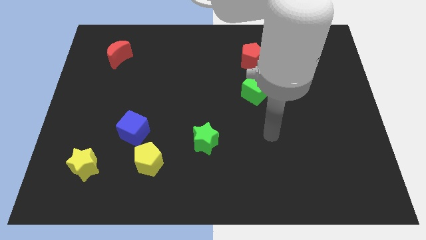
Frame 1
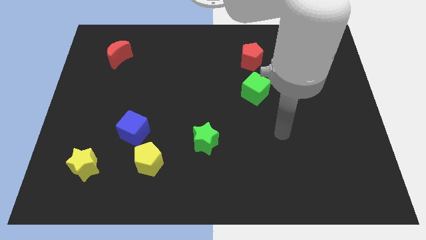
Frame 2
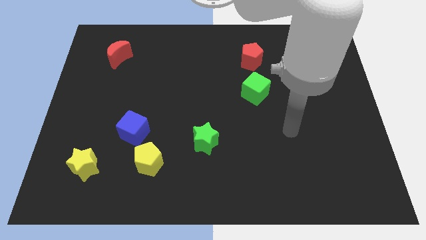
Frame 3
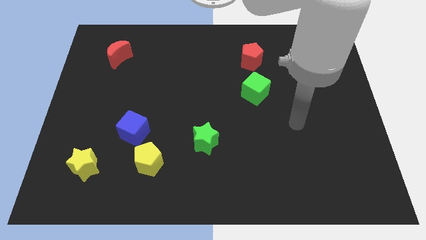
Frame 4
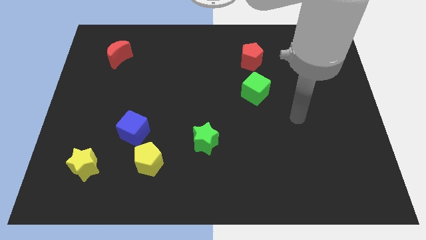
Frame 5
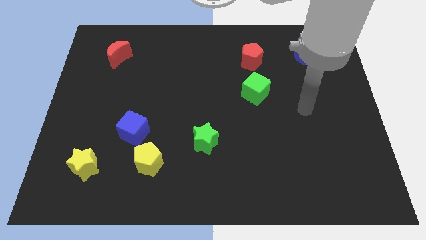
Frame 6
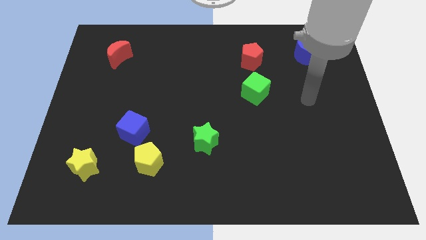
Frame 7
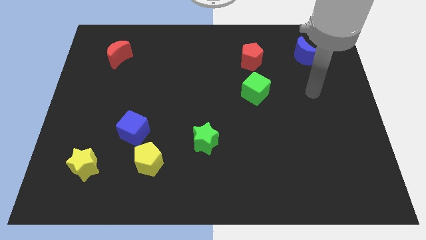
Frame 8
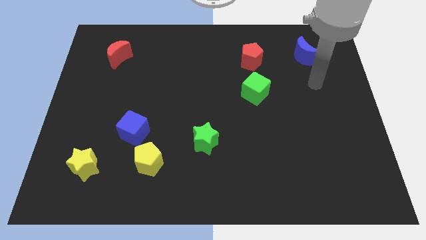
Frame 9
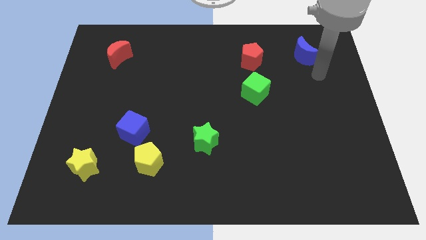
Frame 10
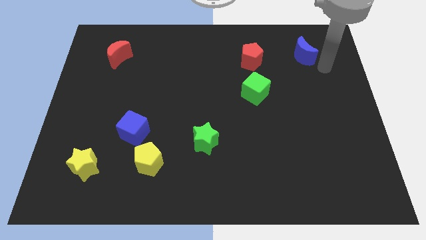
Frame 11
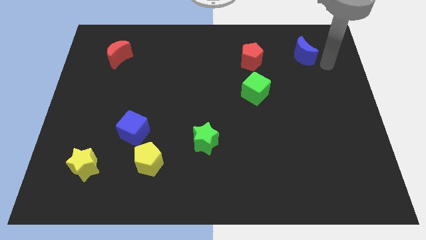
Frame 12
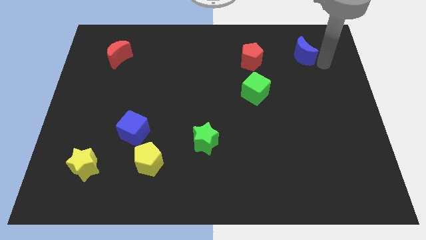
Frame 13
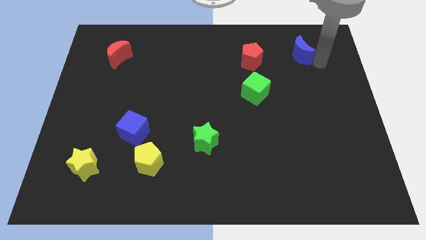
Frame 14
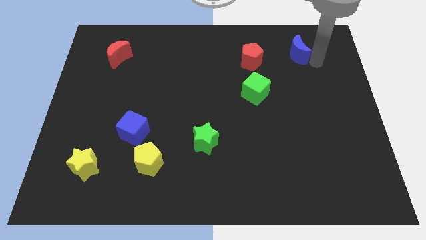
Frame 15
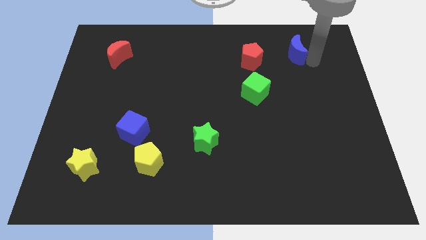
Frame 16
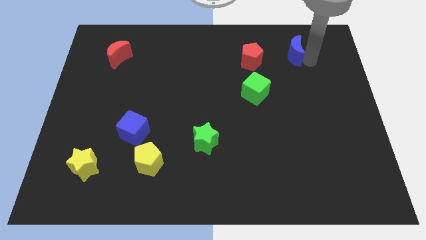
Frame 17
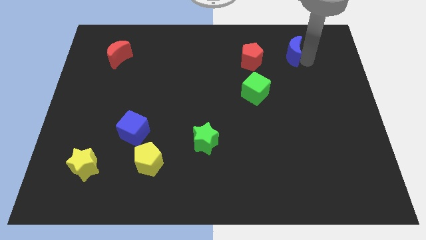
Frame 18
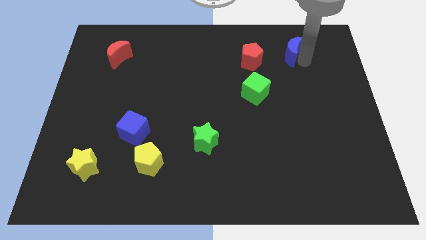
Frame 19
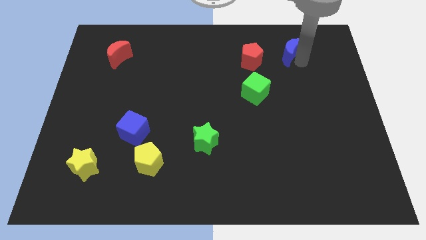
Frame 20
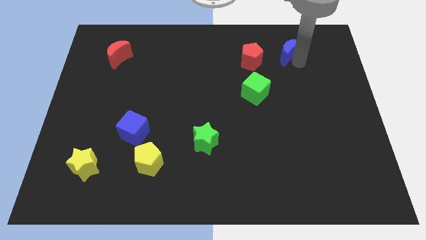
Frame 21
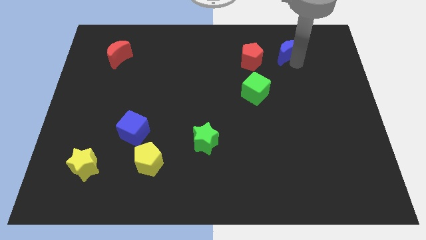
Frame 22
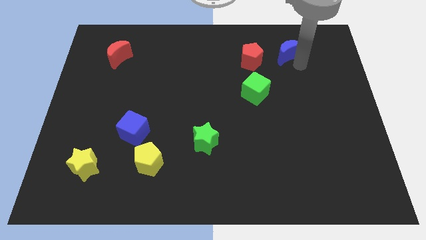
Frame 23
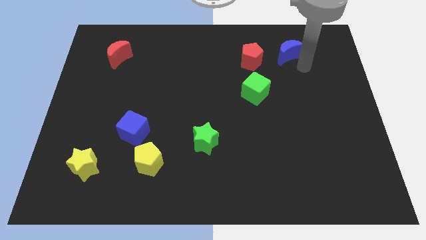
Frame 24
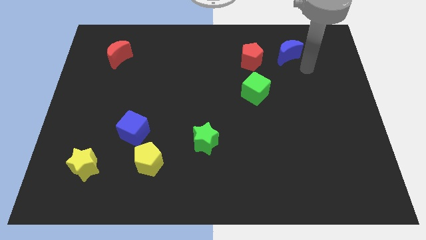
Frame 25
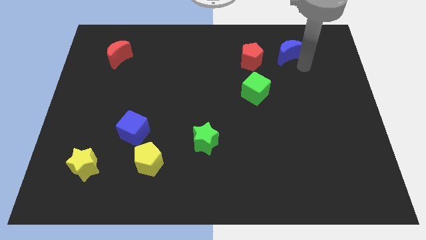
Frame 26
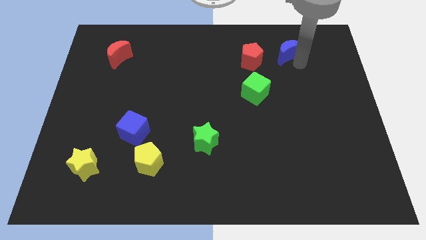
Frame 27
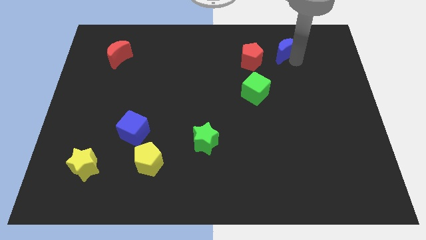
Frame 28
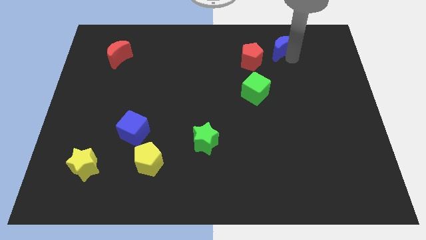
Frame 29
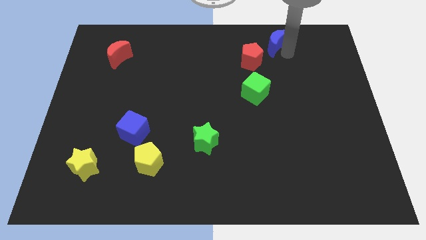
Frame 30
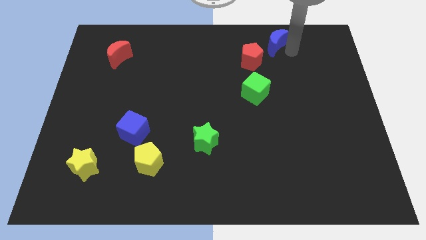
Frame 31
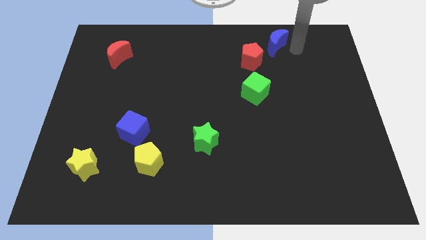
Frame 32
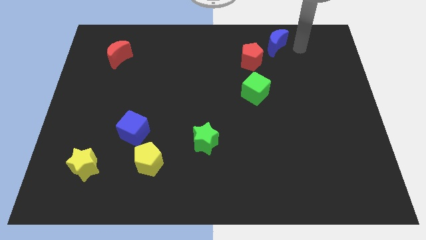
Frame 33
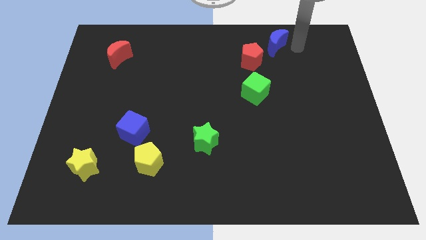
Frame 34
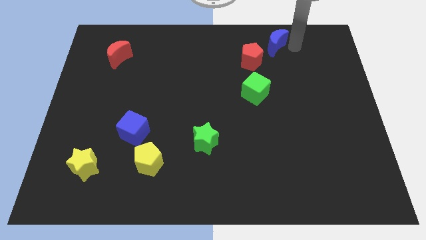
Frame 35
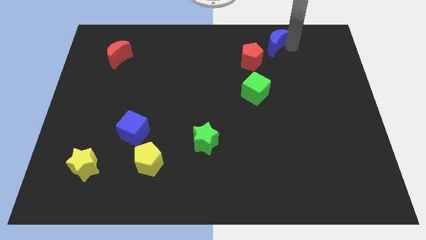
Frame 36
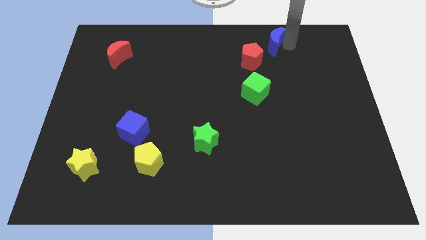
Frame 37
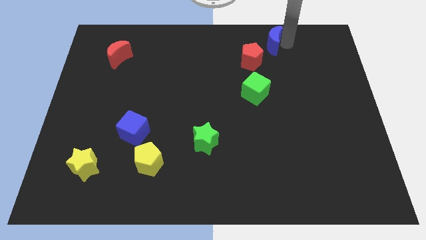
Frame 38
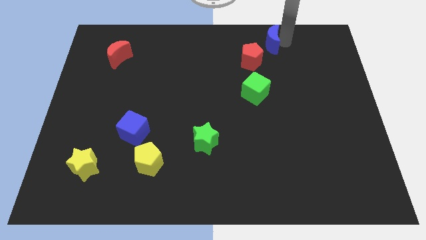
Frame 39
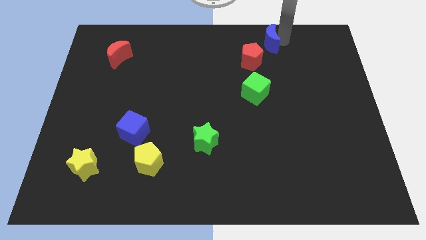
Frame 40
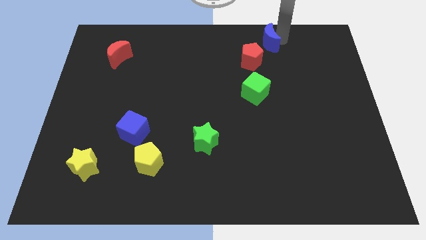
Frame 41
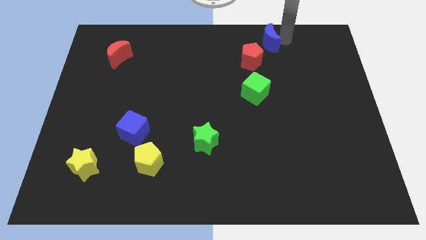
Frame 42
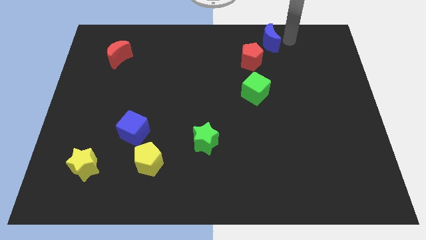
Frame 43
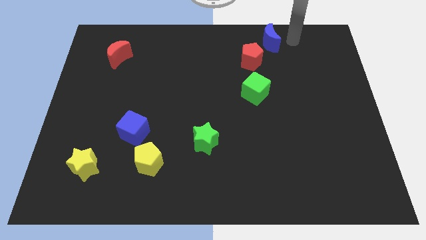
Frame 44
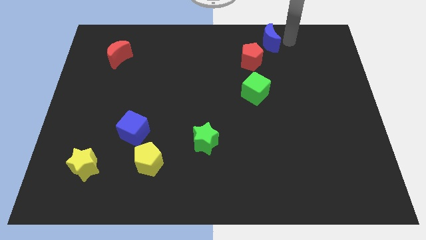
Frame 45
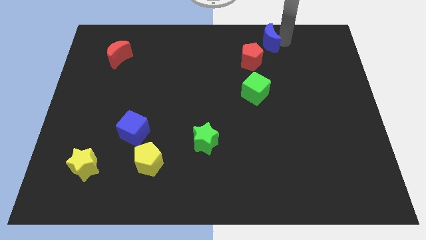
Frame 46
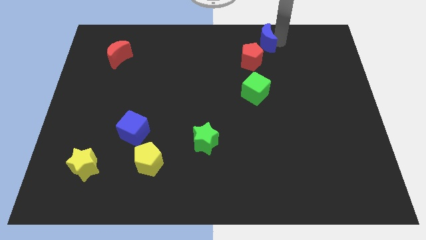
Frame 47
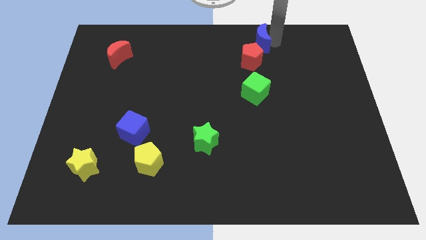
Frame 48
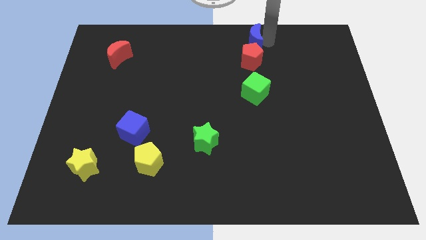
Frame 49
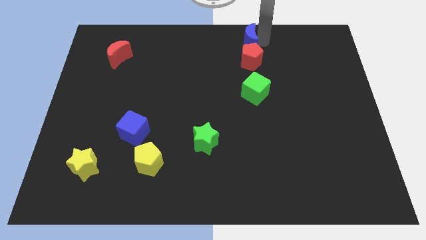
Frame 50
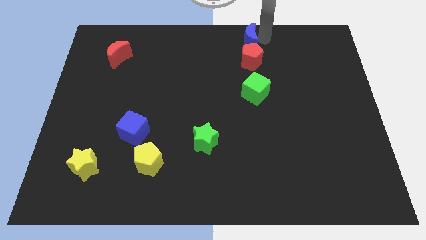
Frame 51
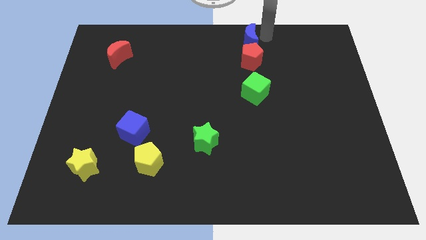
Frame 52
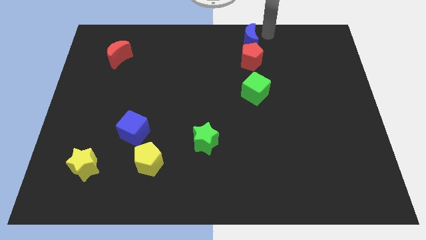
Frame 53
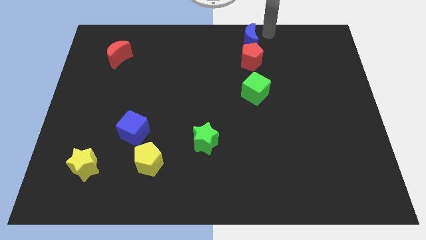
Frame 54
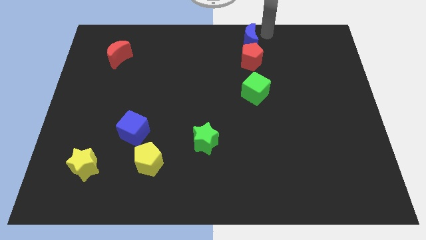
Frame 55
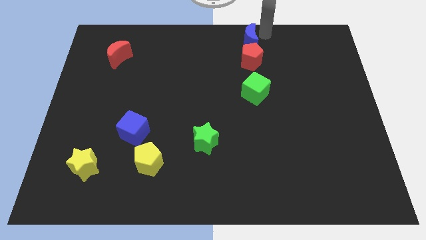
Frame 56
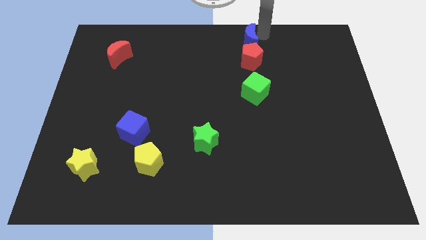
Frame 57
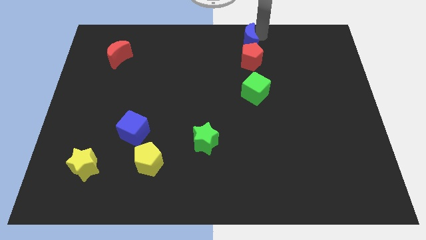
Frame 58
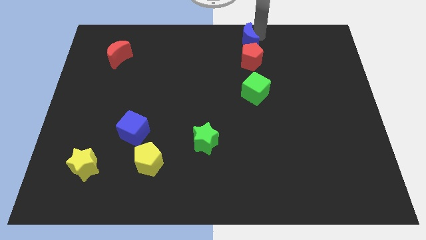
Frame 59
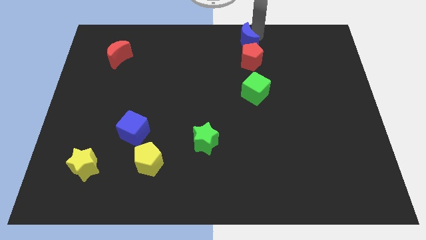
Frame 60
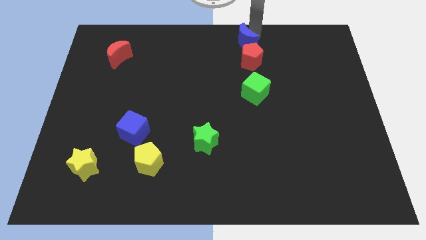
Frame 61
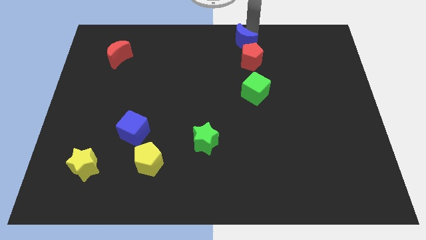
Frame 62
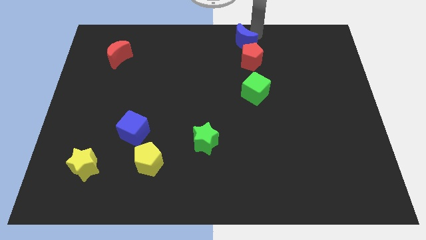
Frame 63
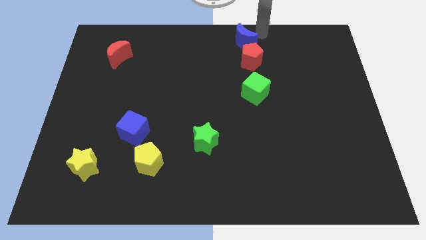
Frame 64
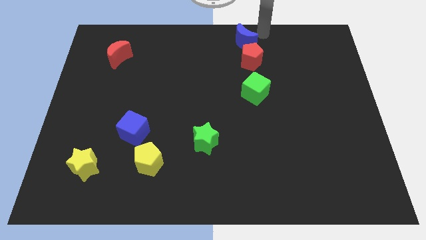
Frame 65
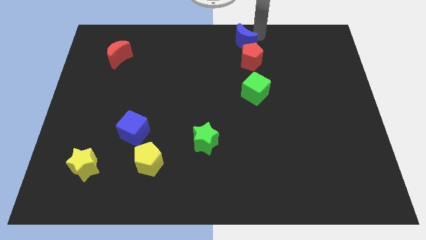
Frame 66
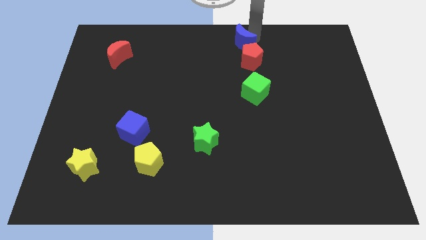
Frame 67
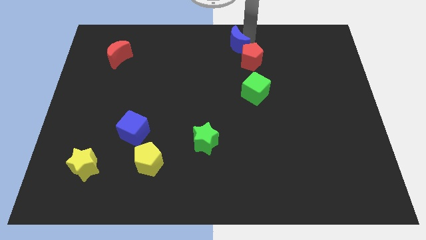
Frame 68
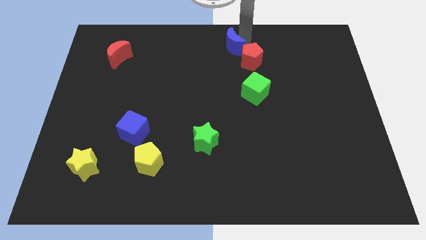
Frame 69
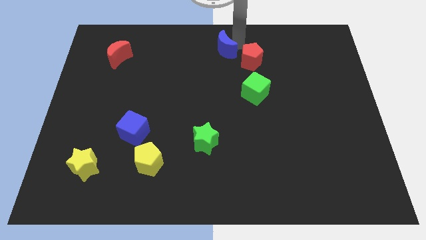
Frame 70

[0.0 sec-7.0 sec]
push the blue moon left

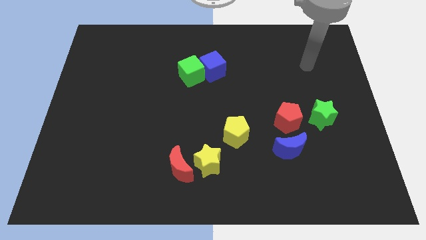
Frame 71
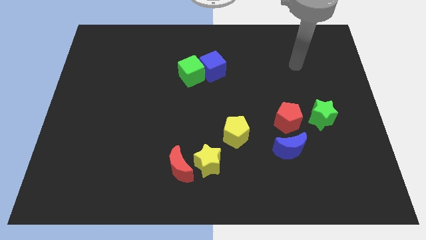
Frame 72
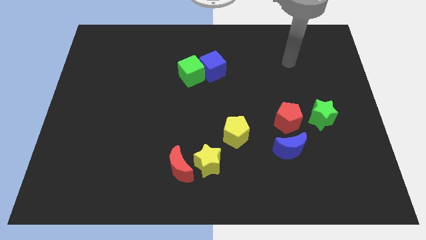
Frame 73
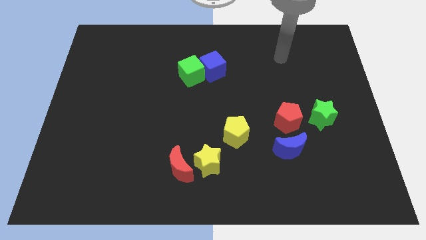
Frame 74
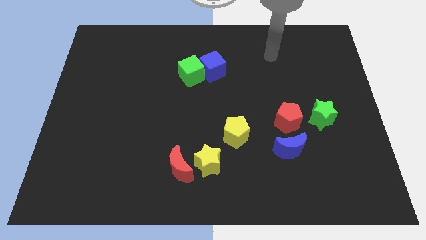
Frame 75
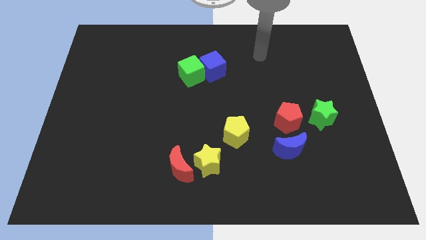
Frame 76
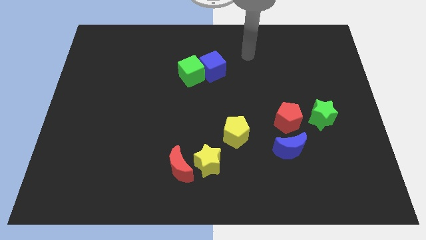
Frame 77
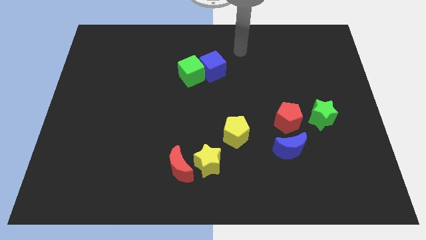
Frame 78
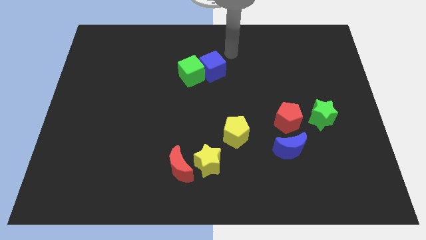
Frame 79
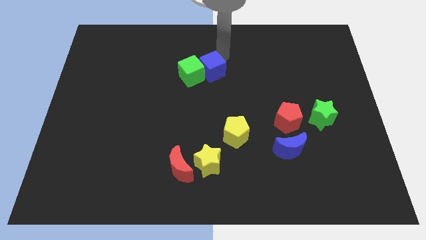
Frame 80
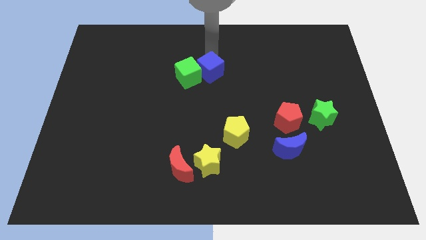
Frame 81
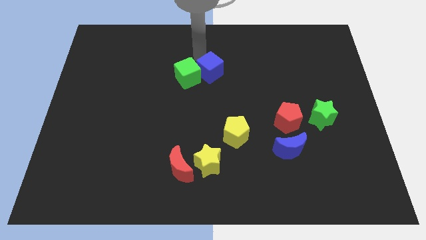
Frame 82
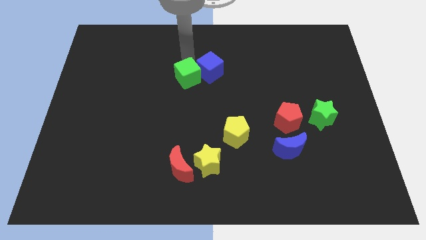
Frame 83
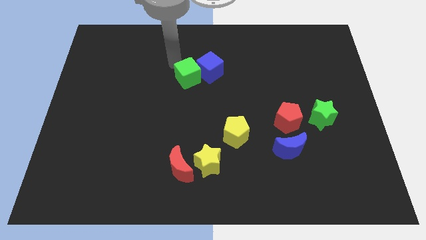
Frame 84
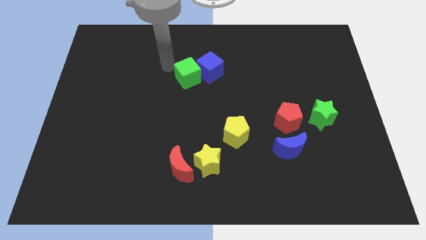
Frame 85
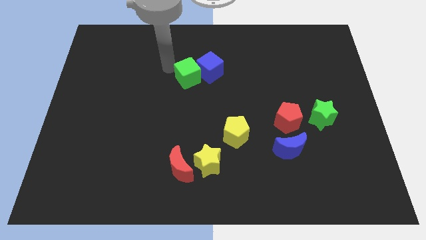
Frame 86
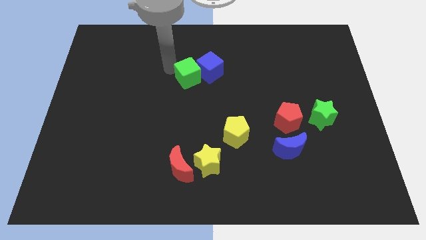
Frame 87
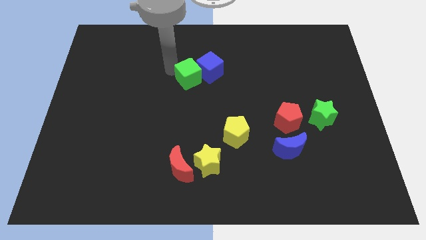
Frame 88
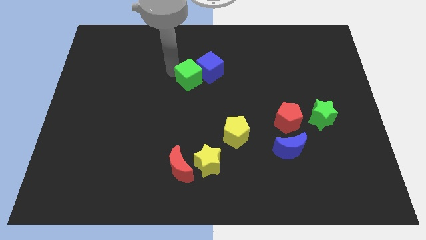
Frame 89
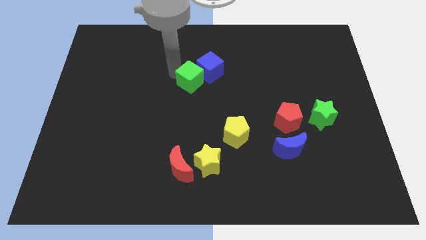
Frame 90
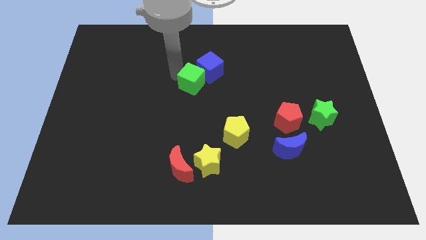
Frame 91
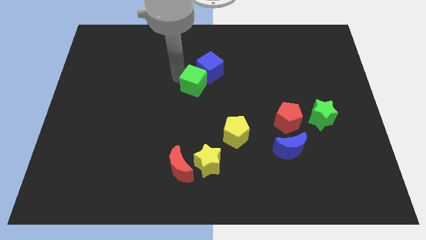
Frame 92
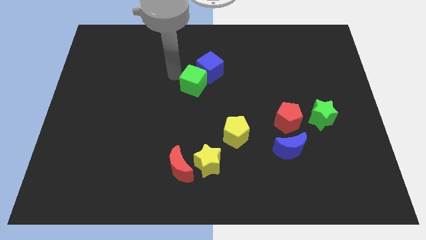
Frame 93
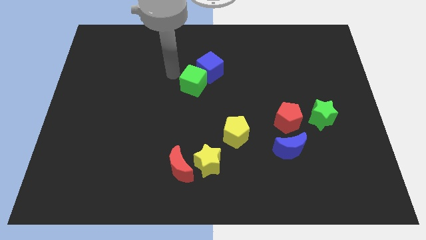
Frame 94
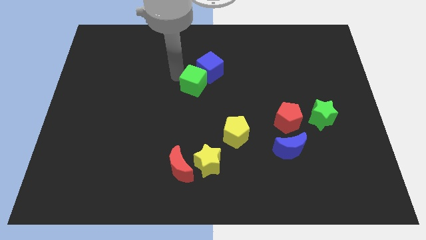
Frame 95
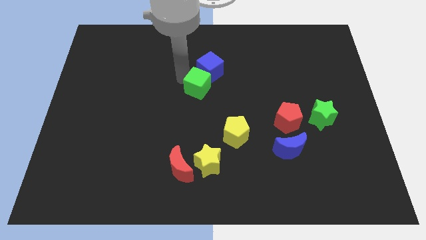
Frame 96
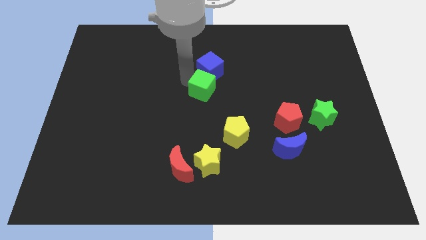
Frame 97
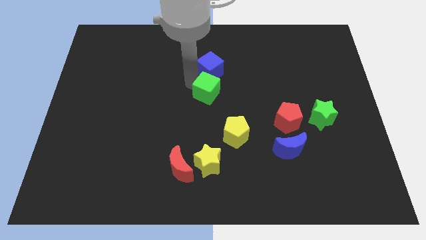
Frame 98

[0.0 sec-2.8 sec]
slightly move the green cube down and then right
